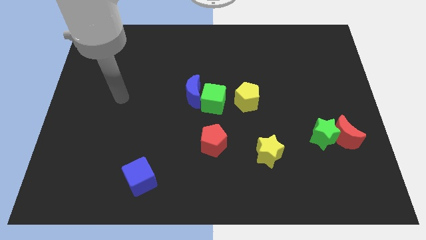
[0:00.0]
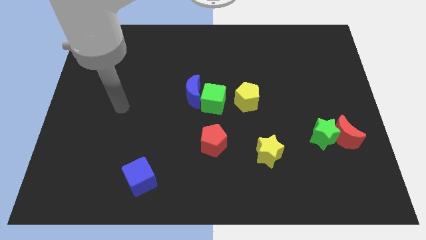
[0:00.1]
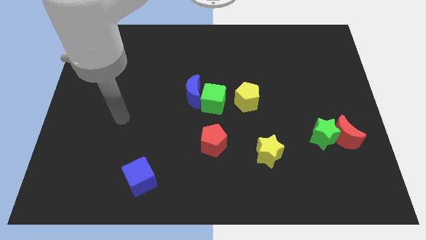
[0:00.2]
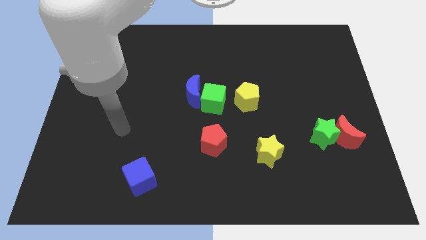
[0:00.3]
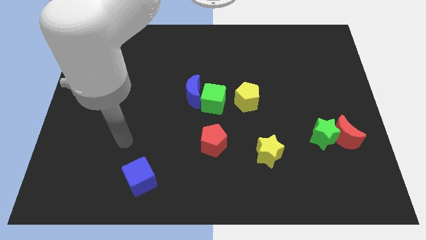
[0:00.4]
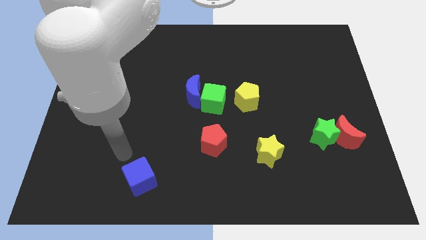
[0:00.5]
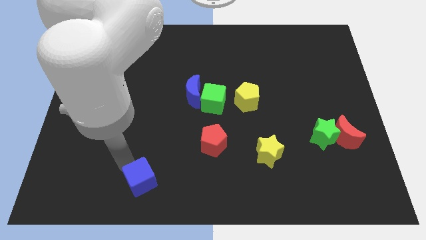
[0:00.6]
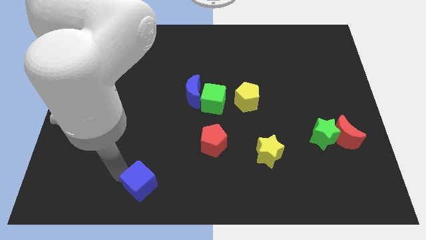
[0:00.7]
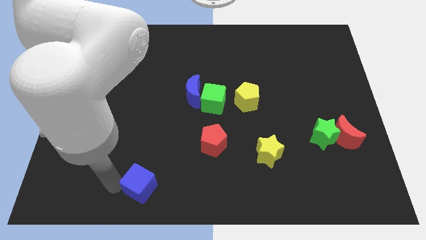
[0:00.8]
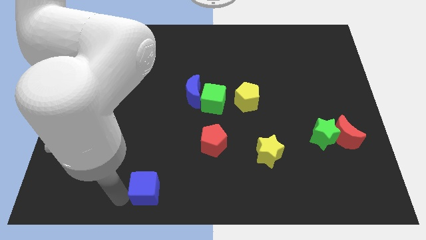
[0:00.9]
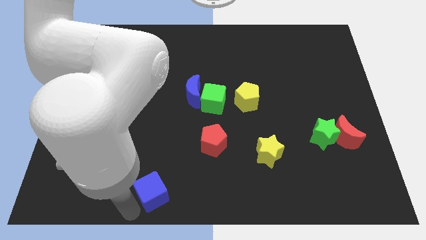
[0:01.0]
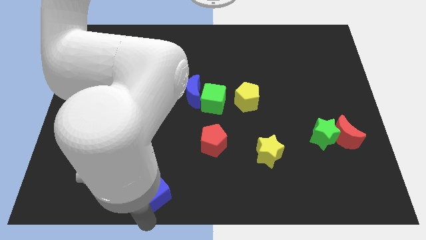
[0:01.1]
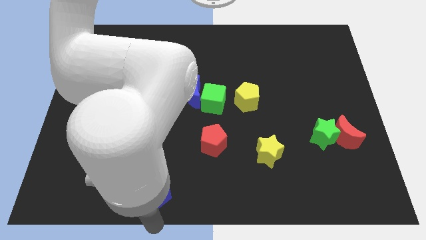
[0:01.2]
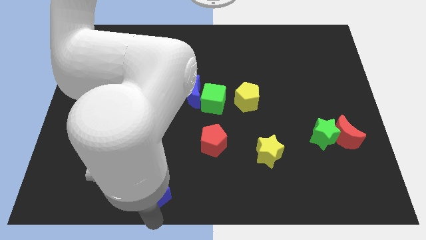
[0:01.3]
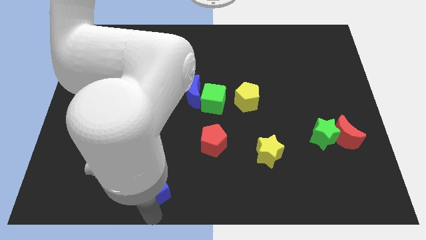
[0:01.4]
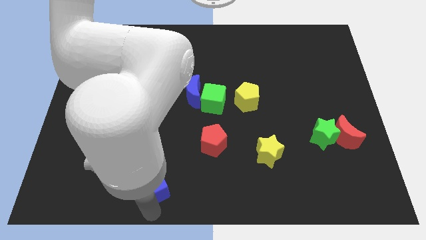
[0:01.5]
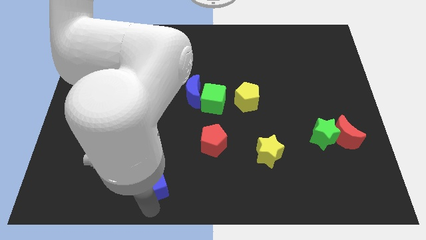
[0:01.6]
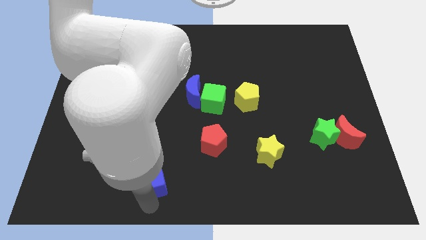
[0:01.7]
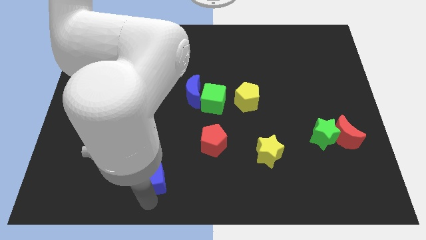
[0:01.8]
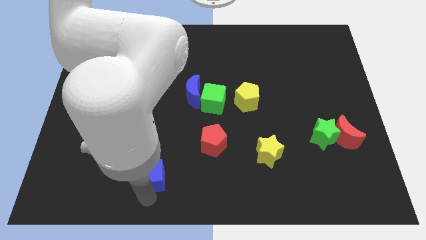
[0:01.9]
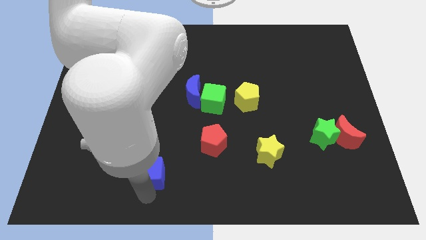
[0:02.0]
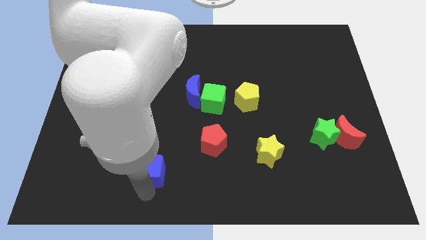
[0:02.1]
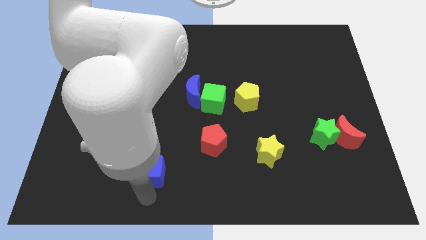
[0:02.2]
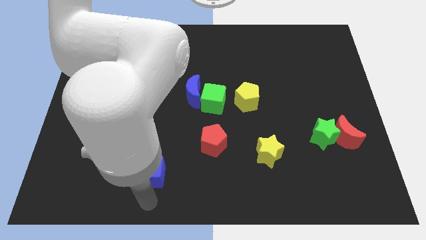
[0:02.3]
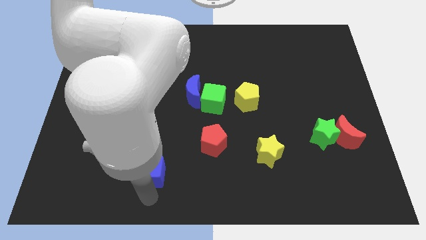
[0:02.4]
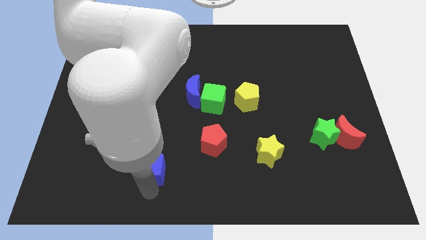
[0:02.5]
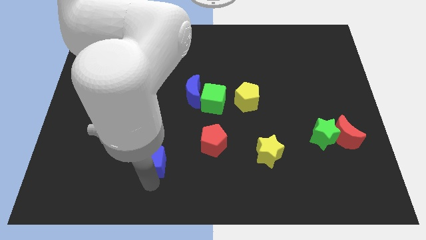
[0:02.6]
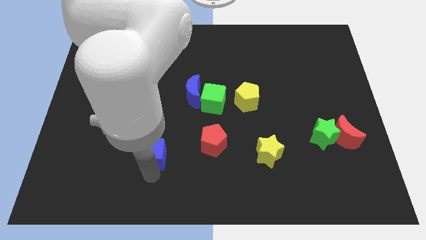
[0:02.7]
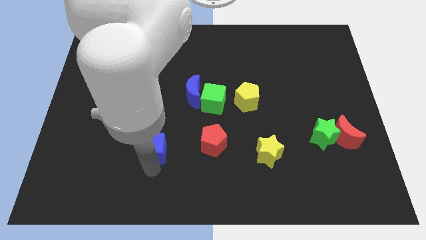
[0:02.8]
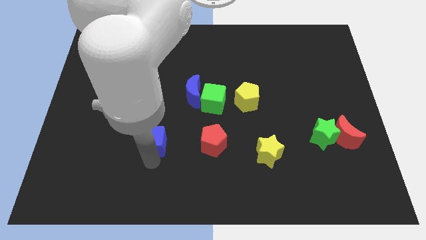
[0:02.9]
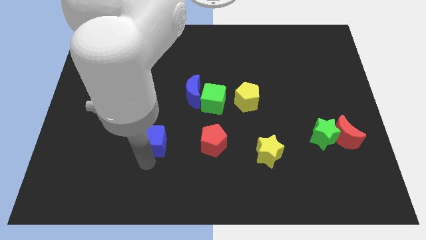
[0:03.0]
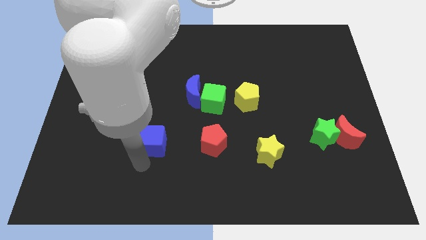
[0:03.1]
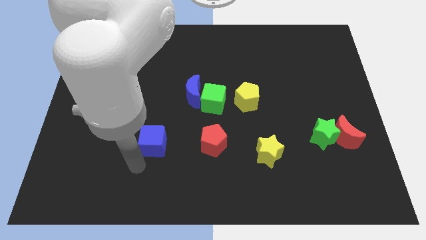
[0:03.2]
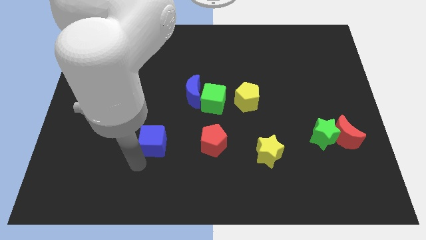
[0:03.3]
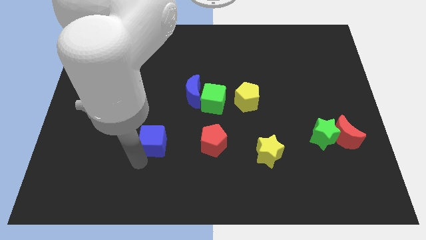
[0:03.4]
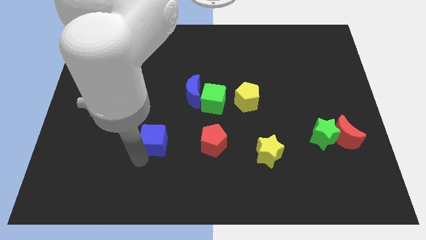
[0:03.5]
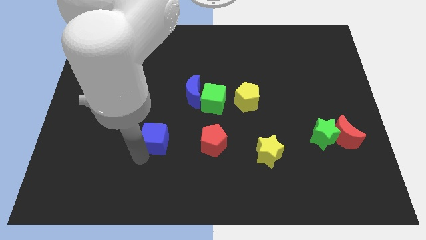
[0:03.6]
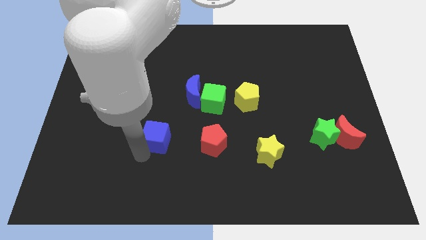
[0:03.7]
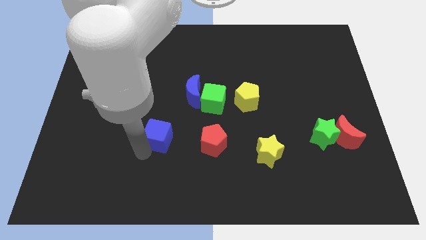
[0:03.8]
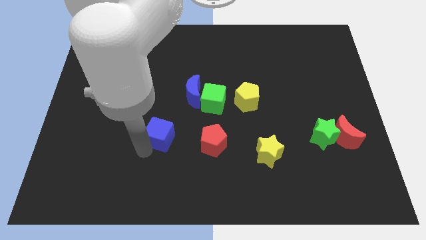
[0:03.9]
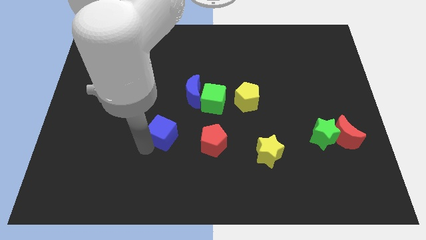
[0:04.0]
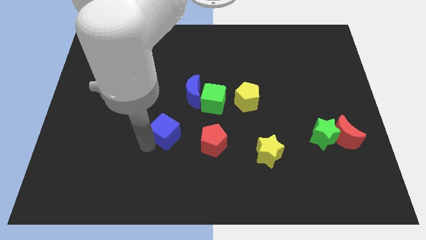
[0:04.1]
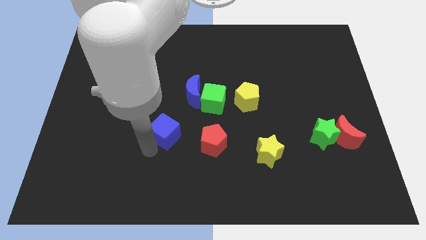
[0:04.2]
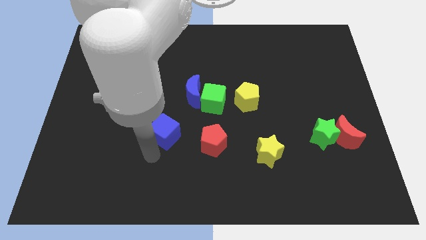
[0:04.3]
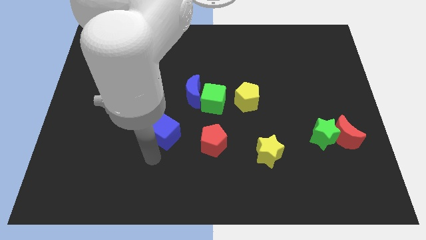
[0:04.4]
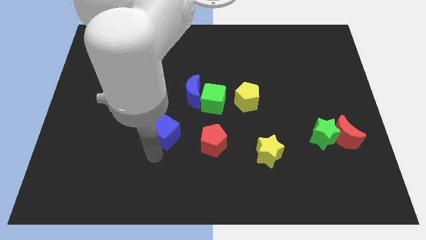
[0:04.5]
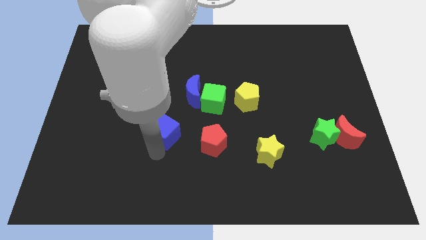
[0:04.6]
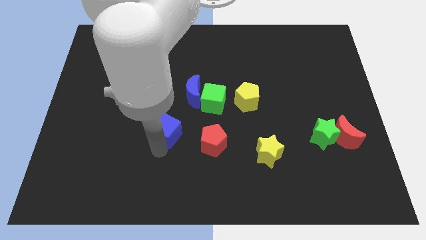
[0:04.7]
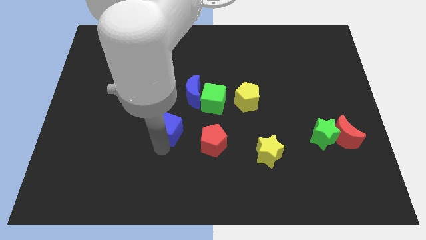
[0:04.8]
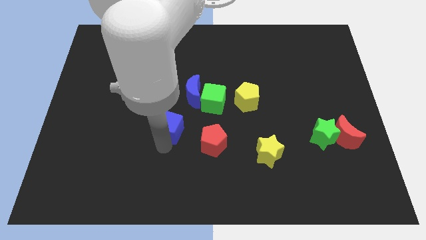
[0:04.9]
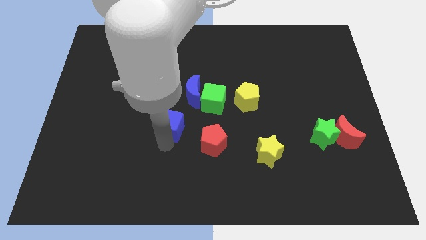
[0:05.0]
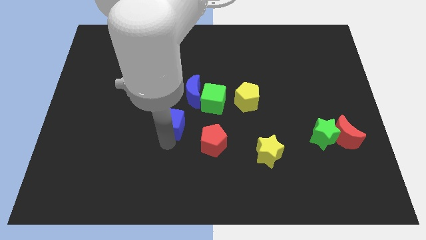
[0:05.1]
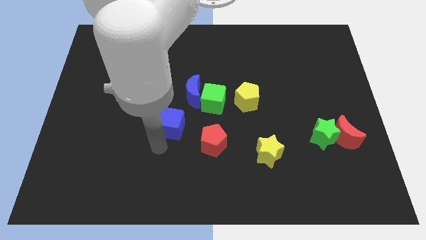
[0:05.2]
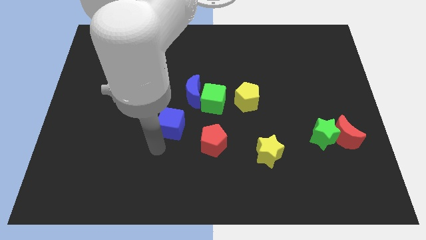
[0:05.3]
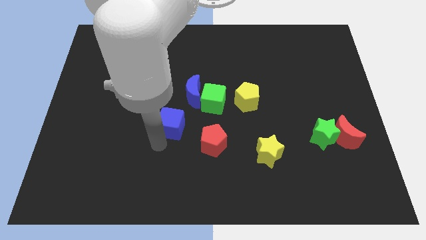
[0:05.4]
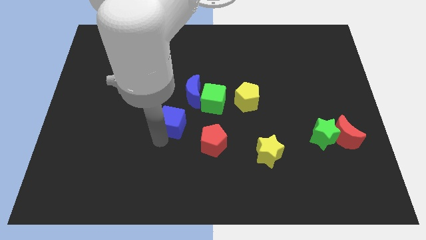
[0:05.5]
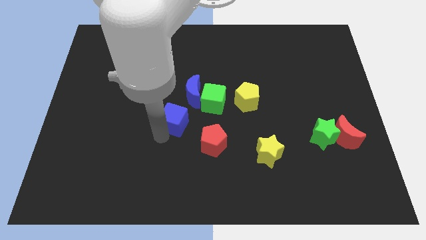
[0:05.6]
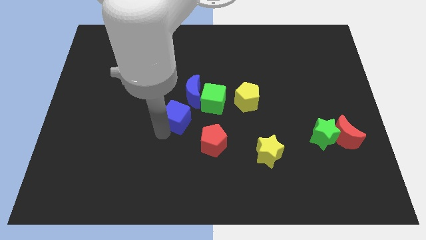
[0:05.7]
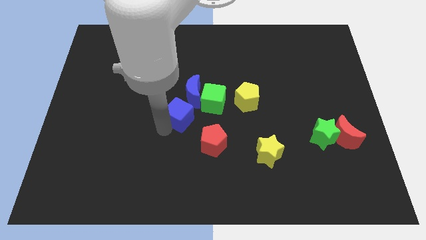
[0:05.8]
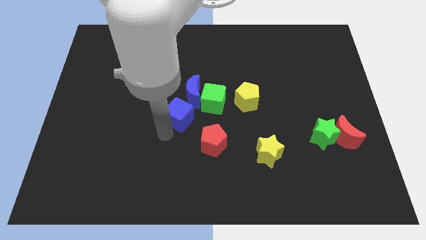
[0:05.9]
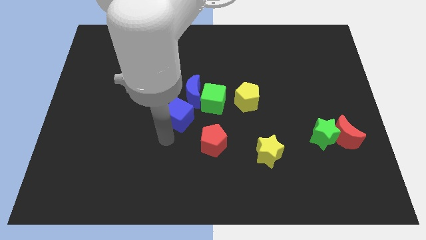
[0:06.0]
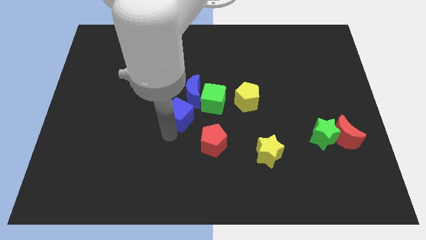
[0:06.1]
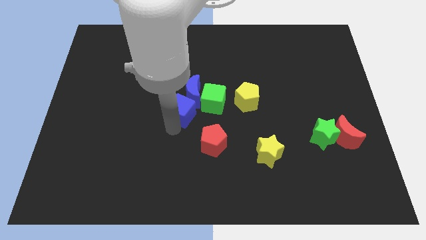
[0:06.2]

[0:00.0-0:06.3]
put the blue cube close to the blue moon

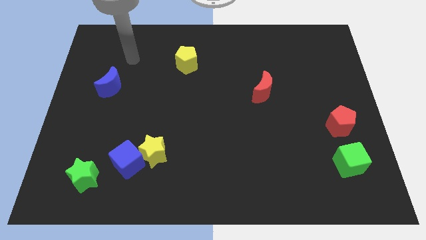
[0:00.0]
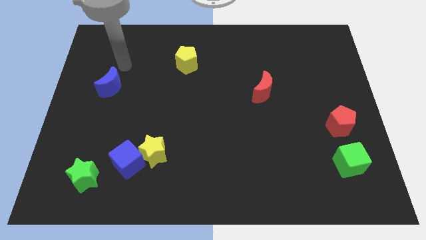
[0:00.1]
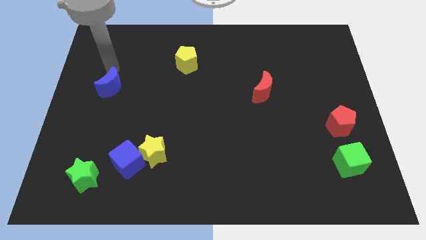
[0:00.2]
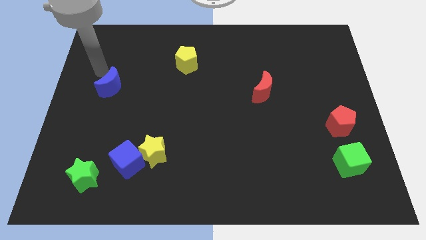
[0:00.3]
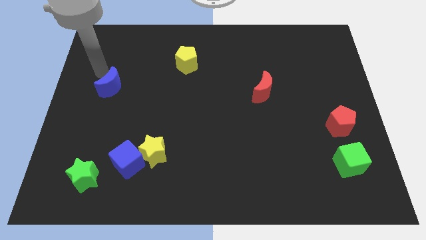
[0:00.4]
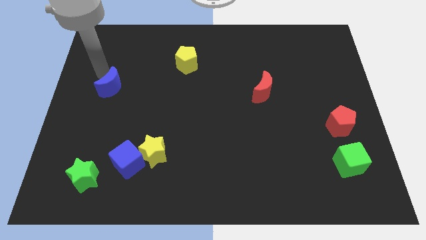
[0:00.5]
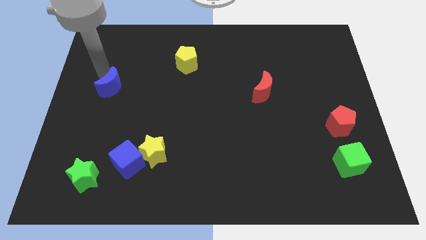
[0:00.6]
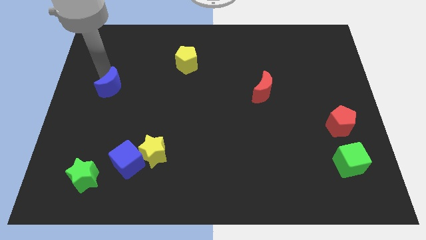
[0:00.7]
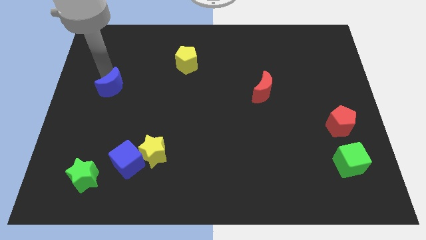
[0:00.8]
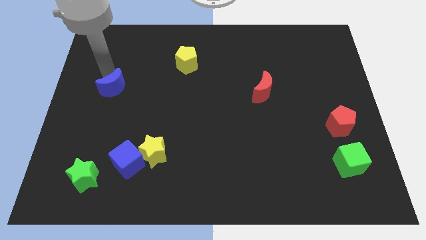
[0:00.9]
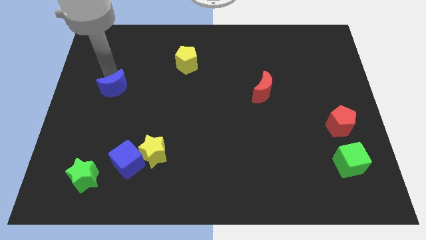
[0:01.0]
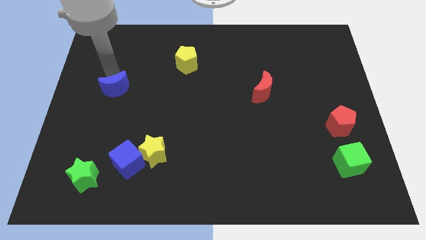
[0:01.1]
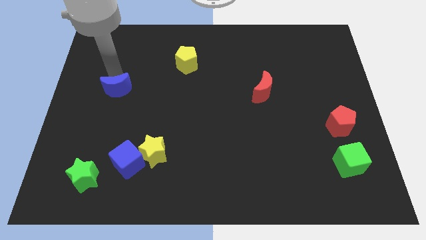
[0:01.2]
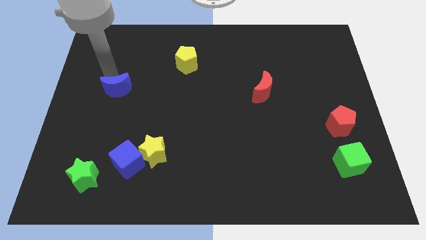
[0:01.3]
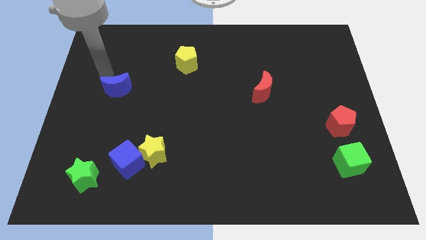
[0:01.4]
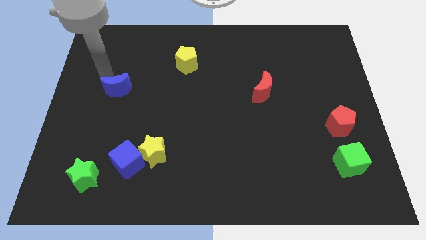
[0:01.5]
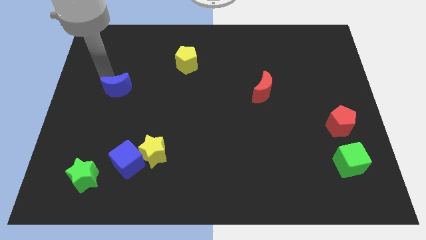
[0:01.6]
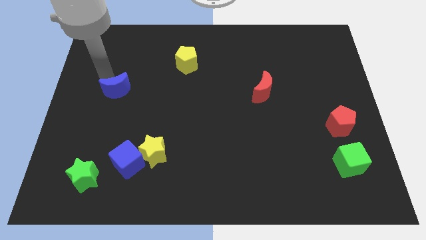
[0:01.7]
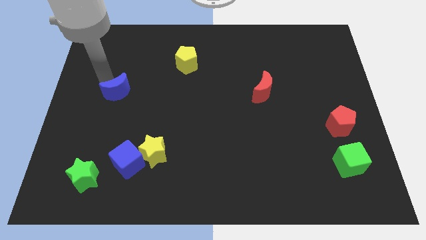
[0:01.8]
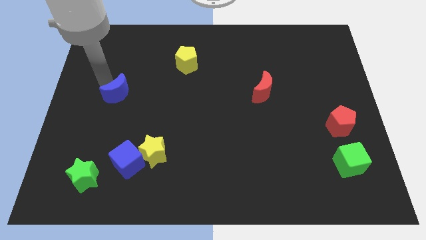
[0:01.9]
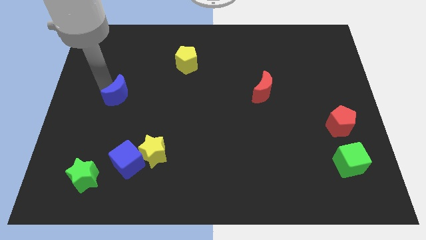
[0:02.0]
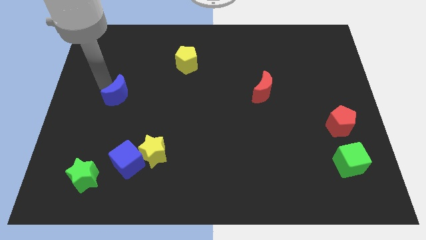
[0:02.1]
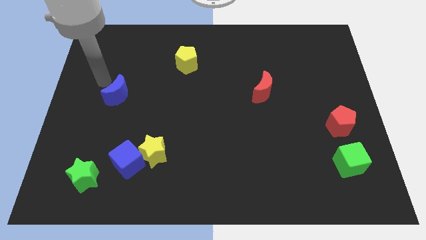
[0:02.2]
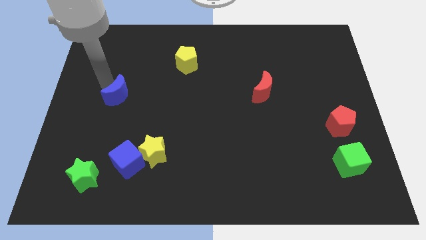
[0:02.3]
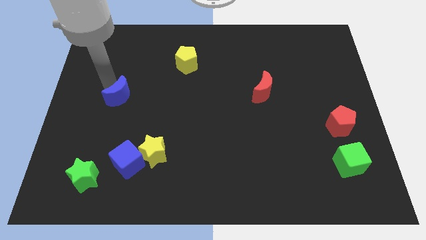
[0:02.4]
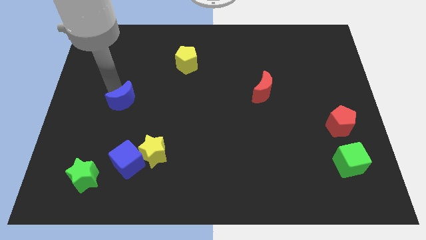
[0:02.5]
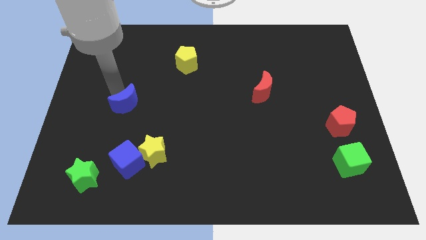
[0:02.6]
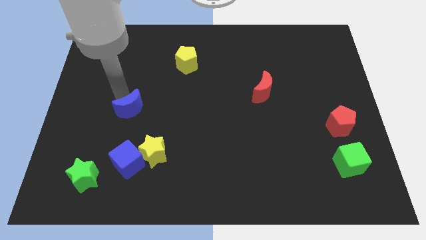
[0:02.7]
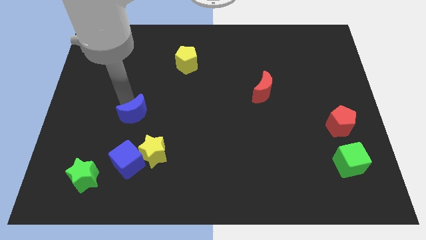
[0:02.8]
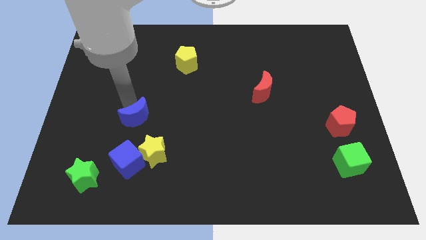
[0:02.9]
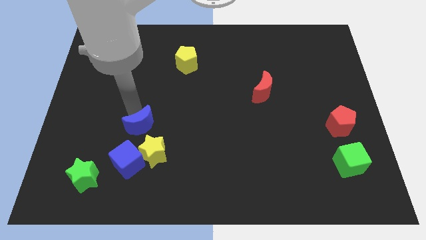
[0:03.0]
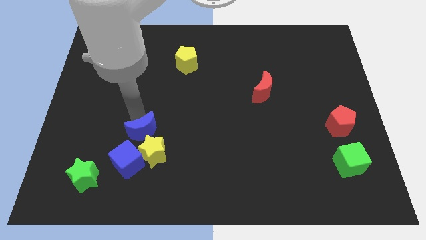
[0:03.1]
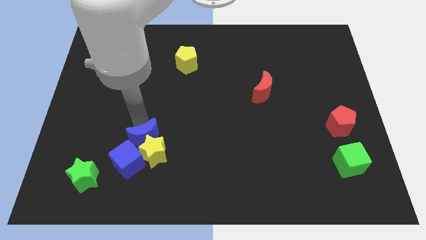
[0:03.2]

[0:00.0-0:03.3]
slide the blue moon close to the yellow star
